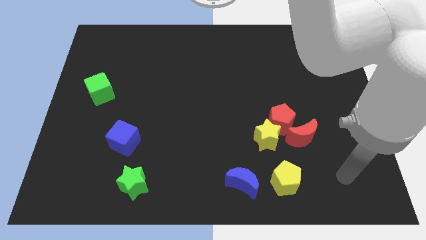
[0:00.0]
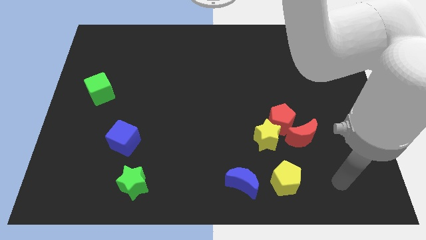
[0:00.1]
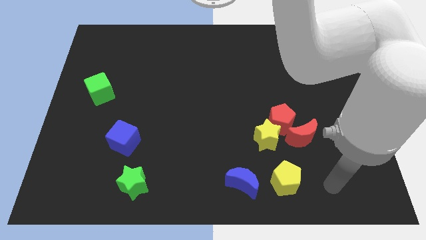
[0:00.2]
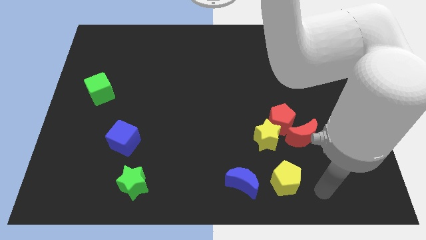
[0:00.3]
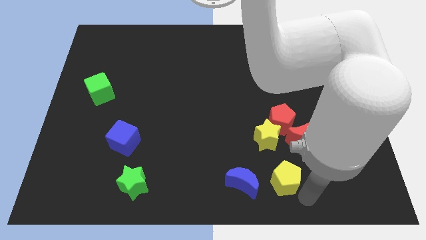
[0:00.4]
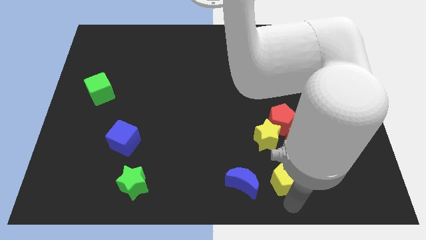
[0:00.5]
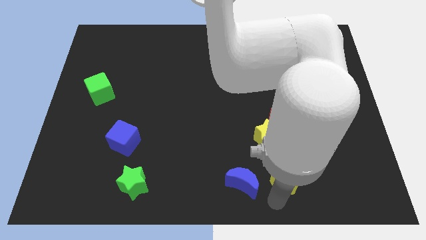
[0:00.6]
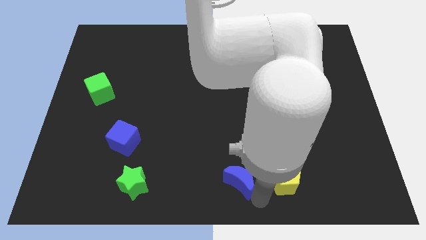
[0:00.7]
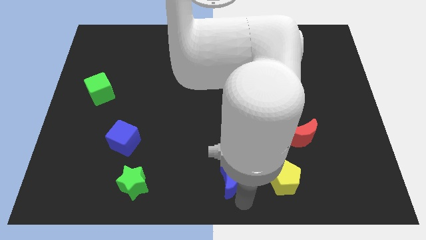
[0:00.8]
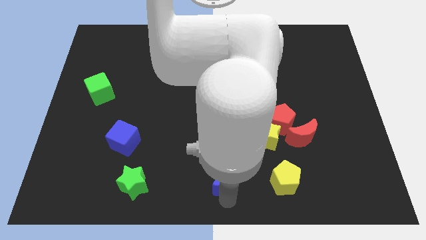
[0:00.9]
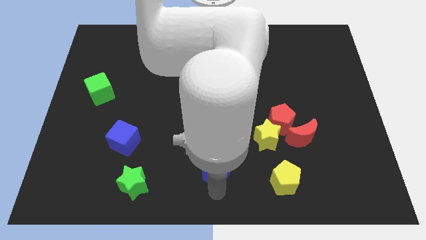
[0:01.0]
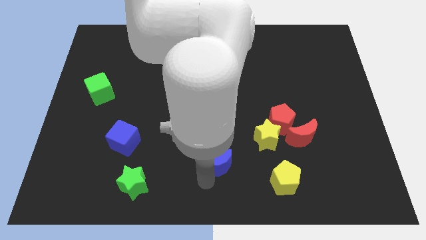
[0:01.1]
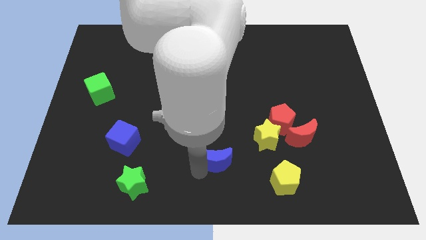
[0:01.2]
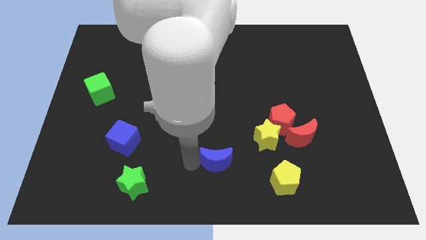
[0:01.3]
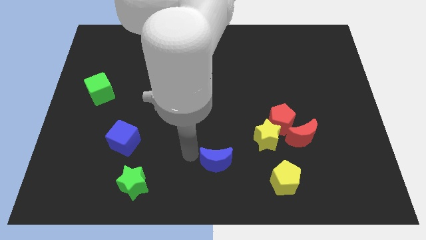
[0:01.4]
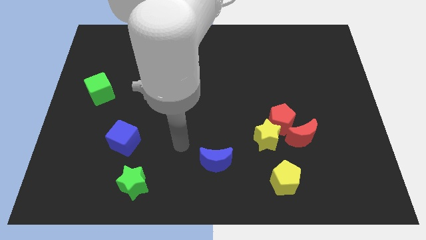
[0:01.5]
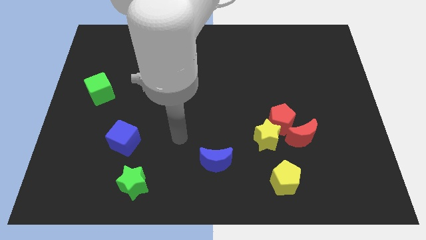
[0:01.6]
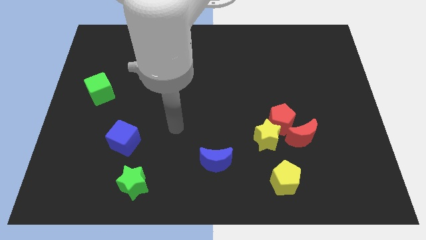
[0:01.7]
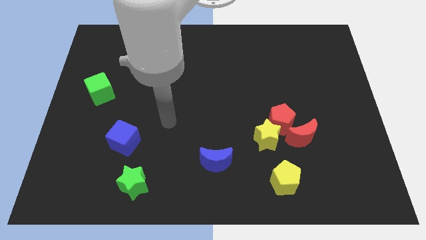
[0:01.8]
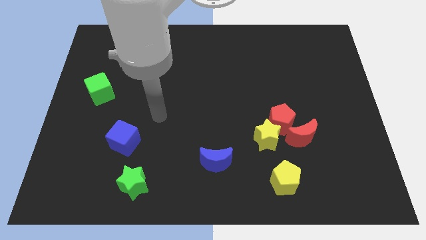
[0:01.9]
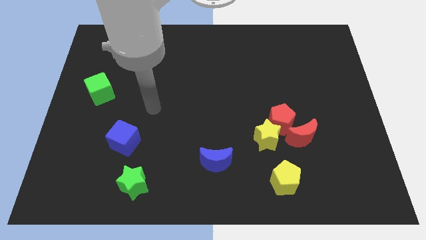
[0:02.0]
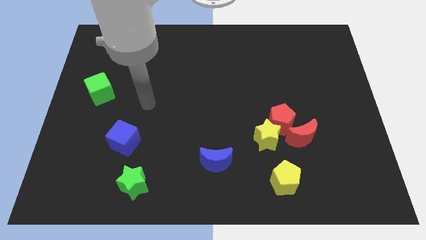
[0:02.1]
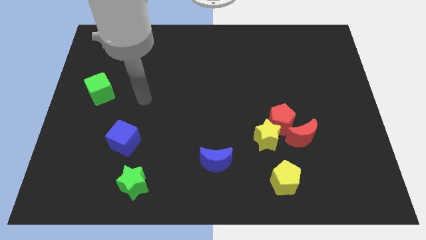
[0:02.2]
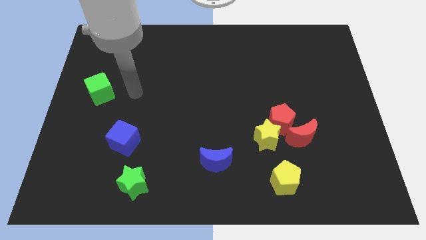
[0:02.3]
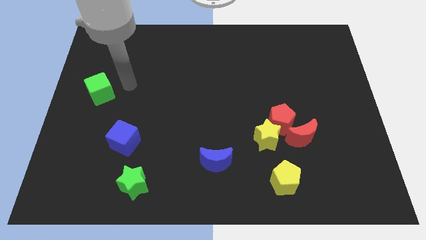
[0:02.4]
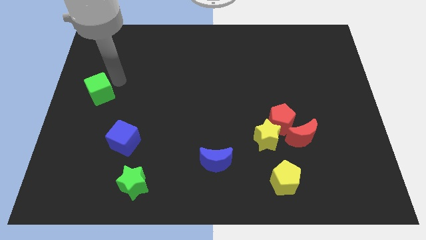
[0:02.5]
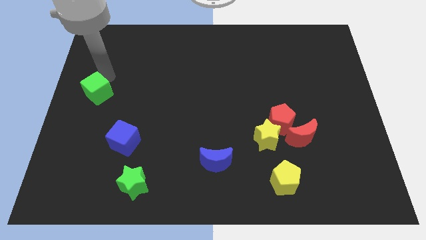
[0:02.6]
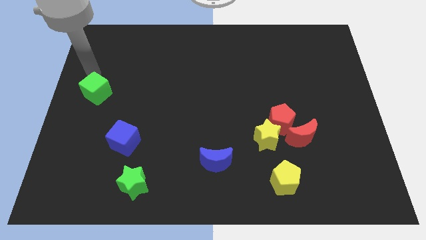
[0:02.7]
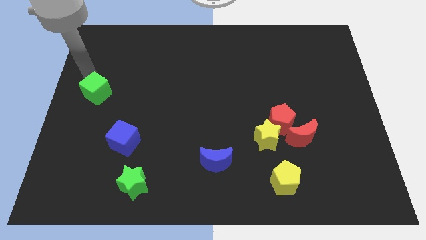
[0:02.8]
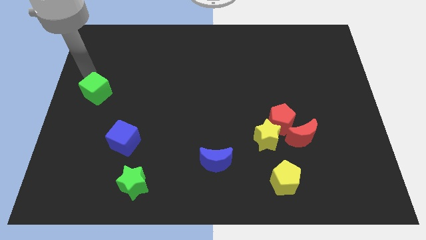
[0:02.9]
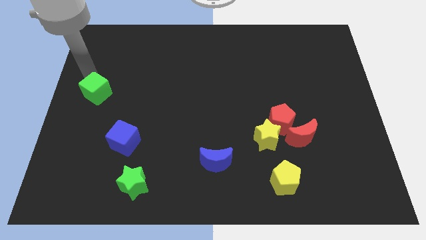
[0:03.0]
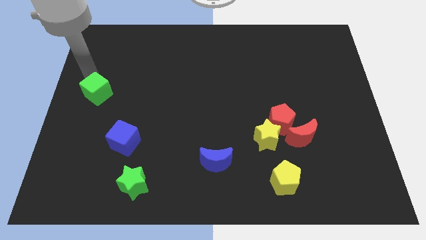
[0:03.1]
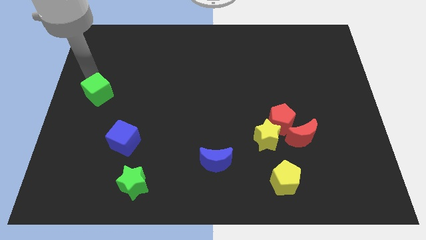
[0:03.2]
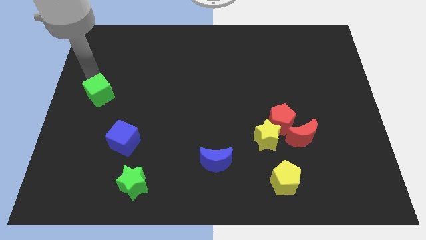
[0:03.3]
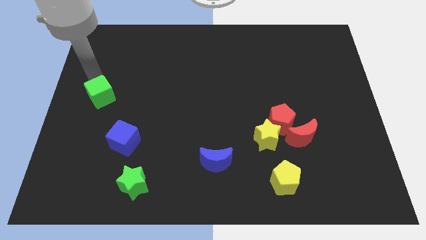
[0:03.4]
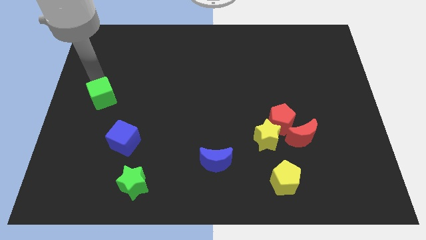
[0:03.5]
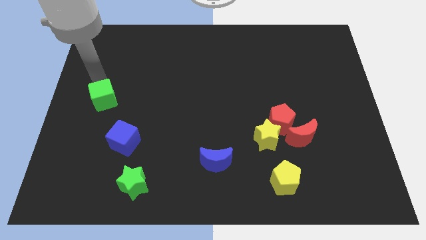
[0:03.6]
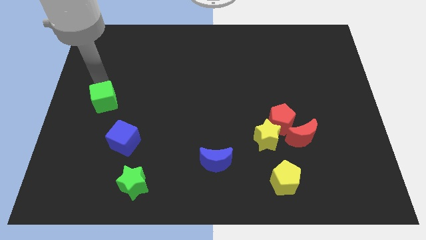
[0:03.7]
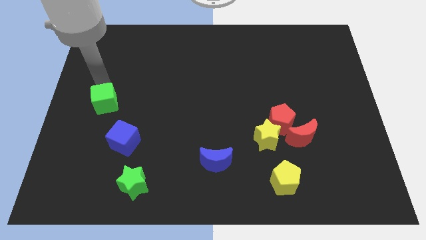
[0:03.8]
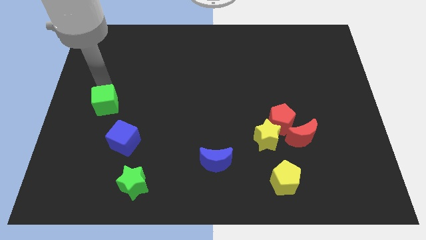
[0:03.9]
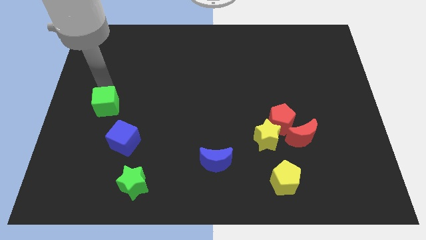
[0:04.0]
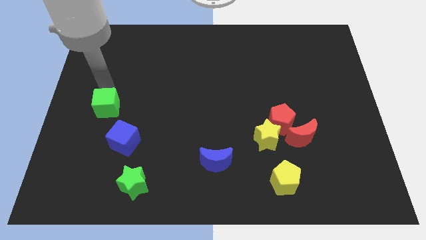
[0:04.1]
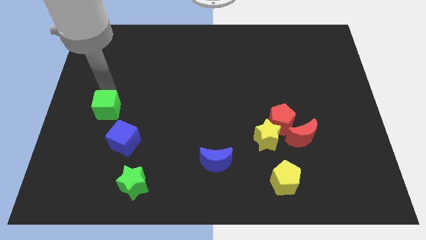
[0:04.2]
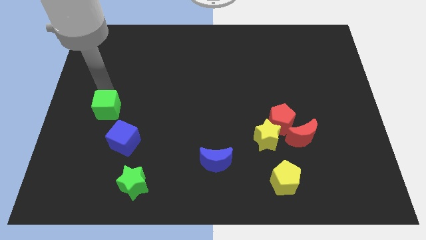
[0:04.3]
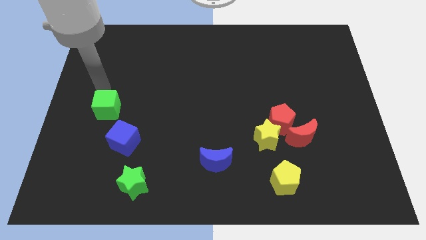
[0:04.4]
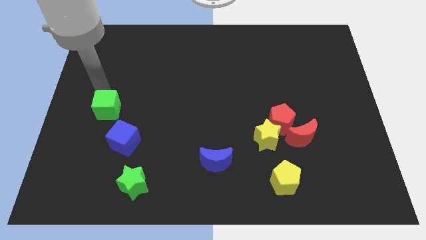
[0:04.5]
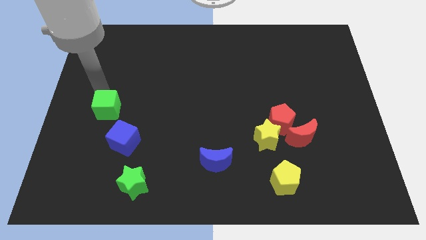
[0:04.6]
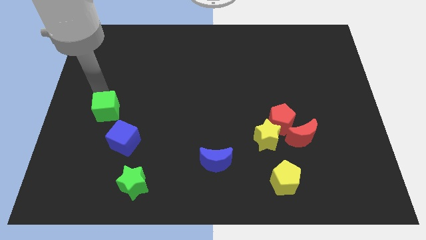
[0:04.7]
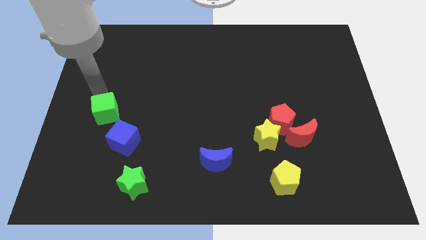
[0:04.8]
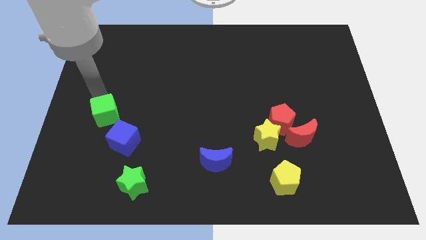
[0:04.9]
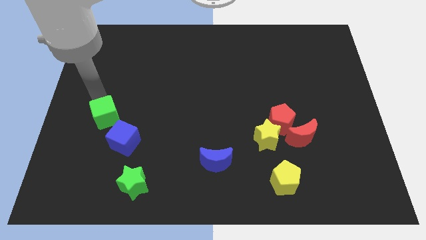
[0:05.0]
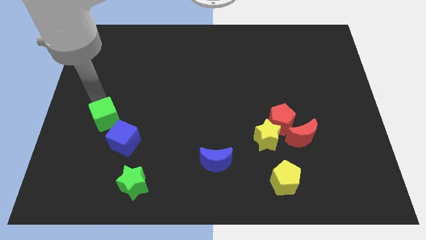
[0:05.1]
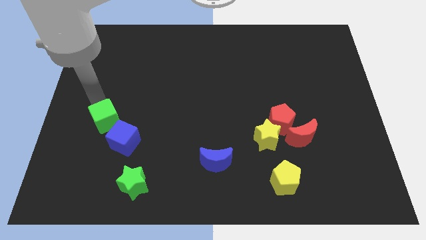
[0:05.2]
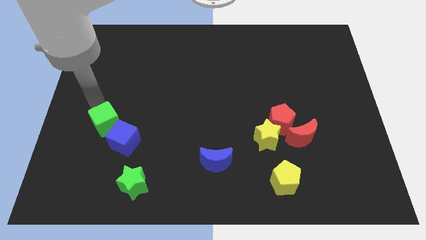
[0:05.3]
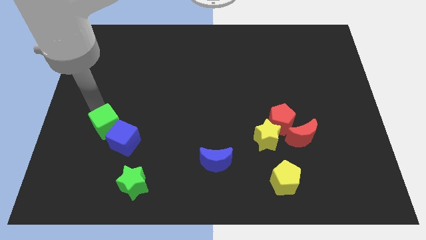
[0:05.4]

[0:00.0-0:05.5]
move the green cube towards the blue cube
